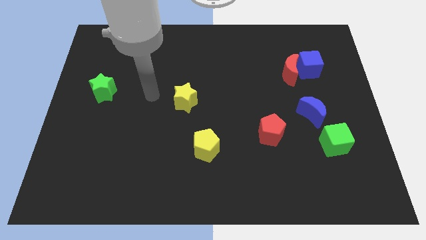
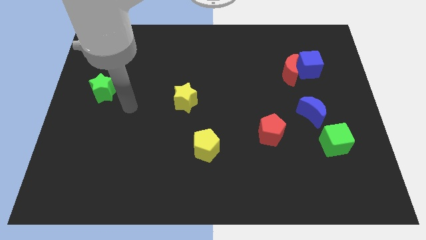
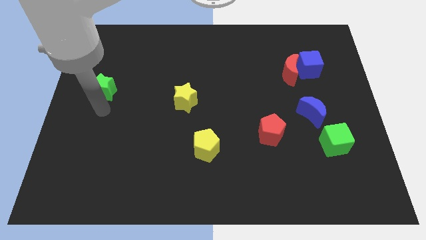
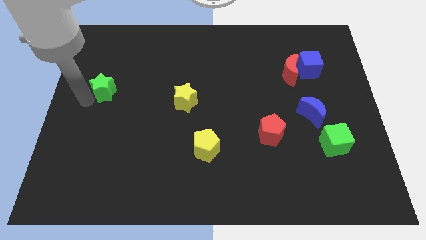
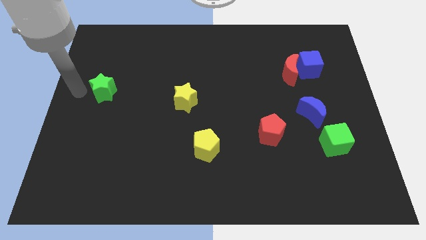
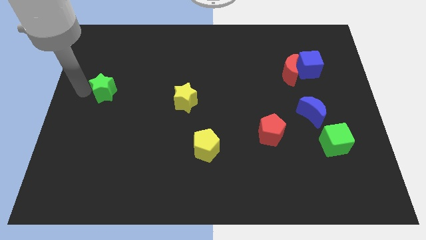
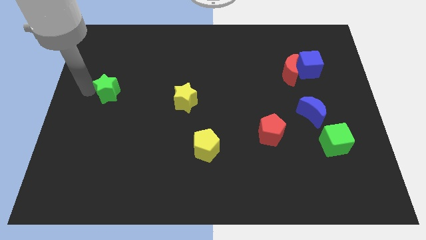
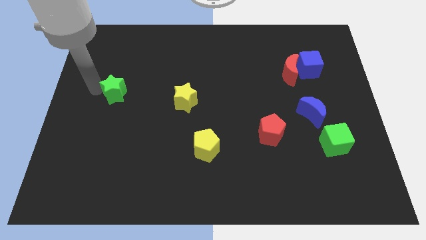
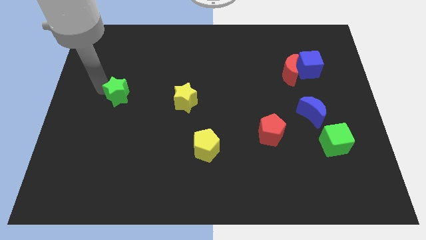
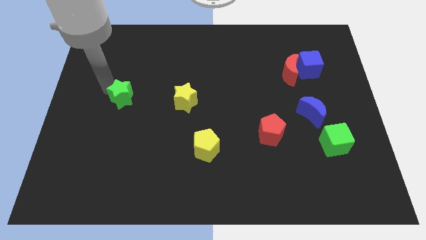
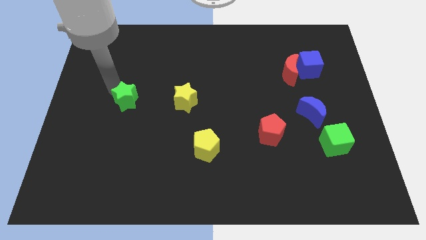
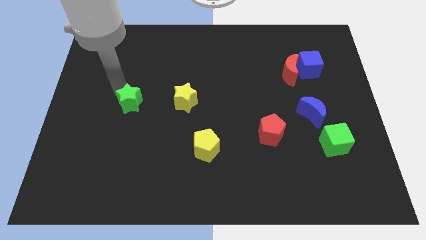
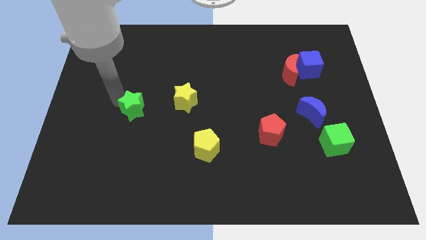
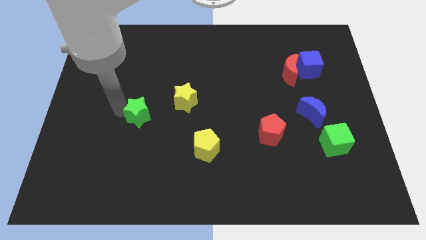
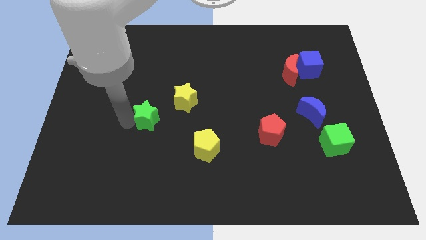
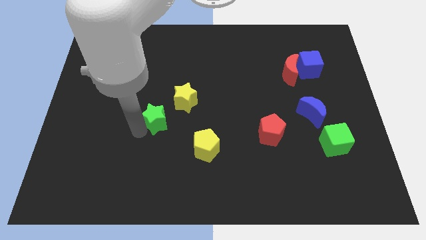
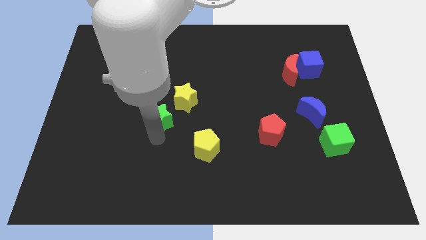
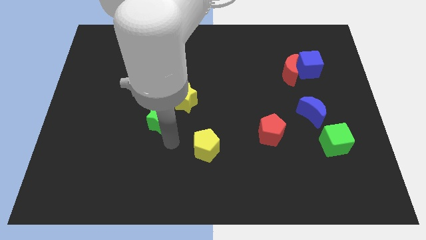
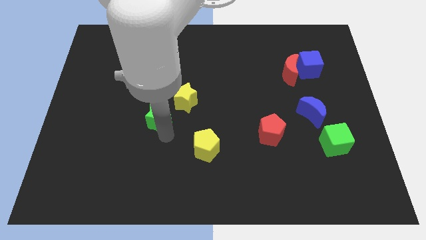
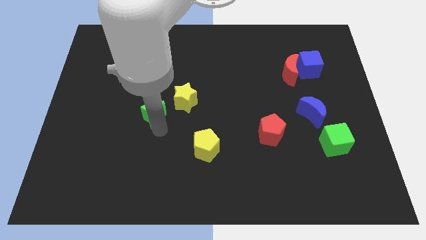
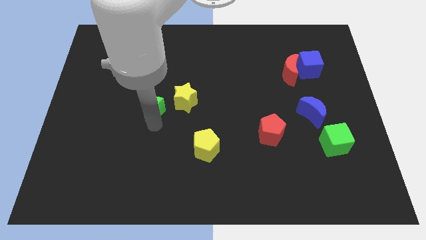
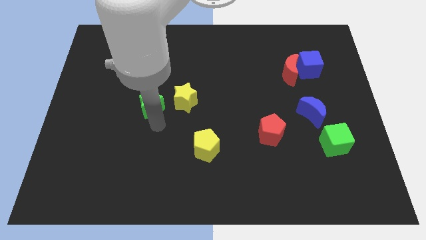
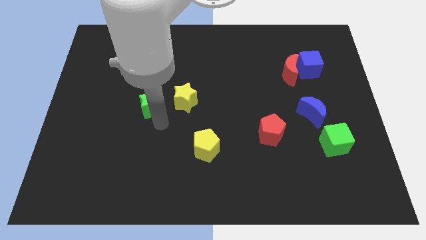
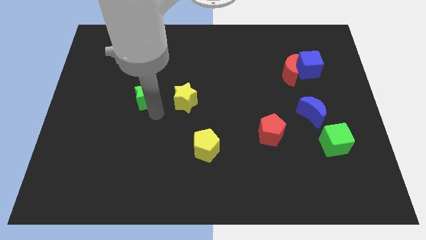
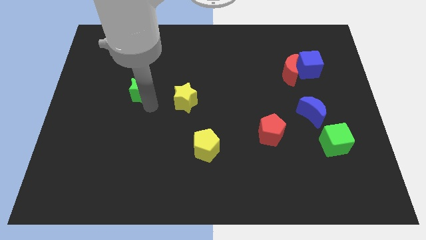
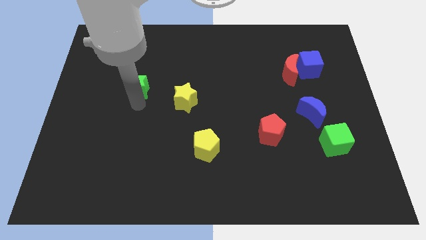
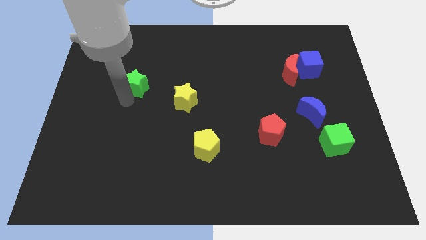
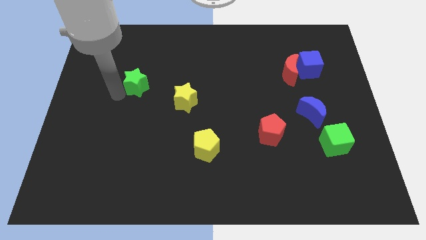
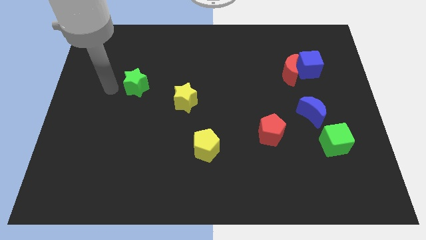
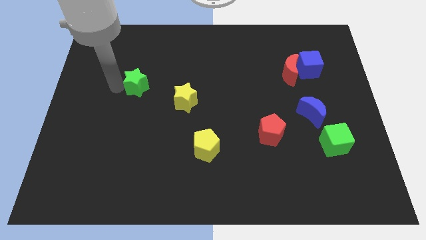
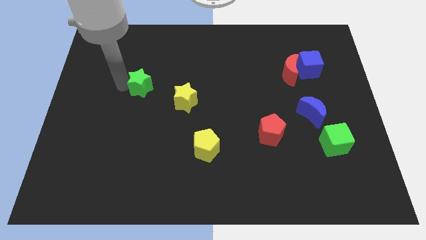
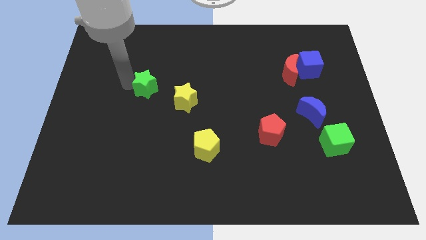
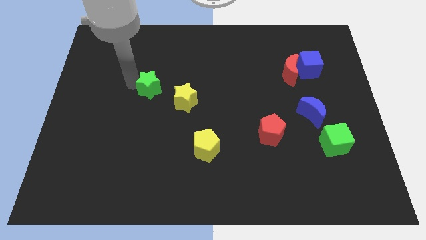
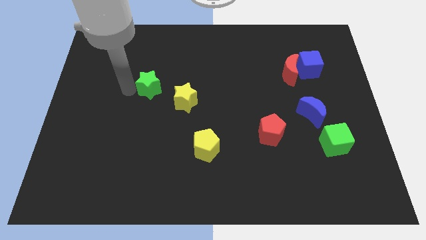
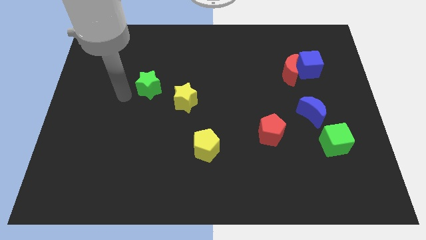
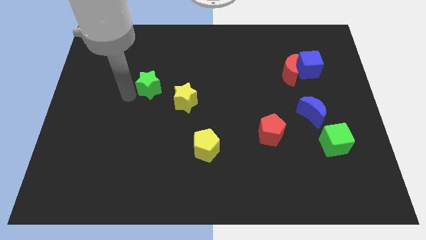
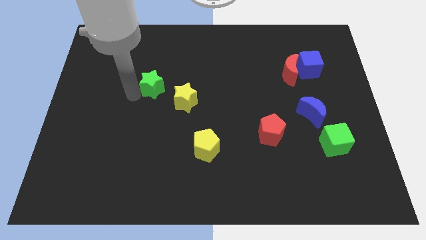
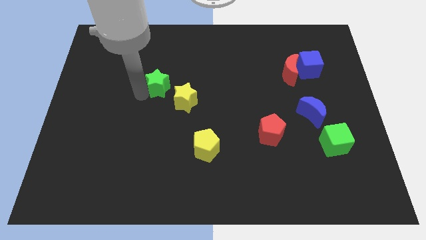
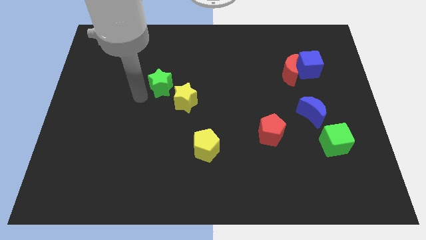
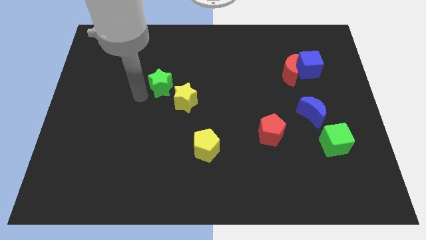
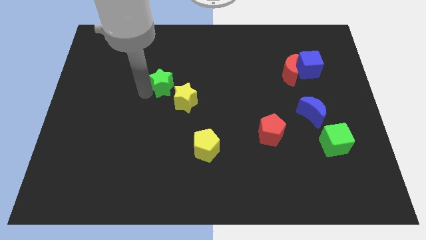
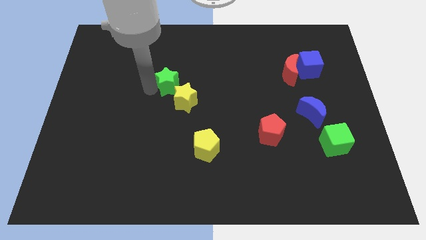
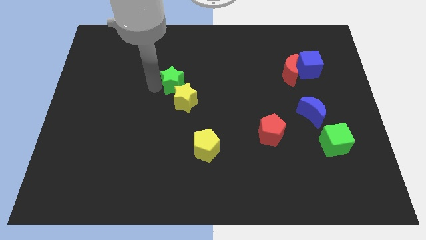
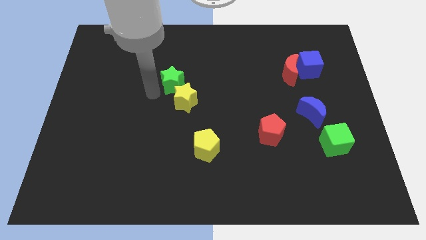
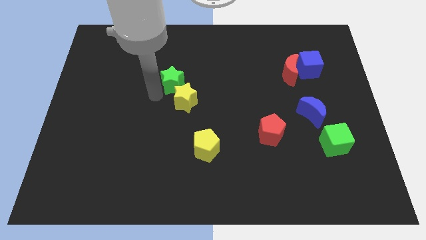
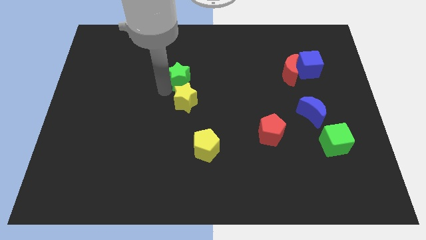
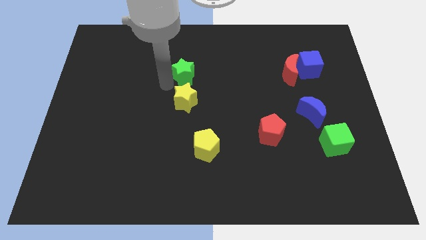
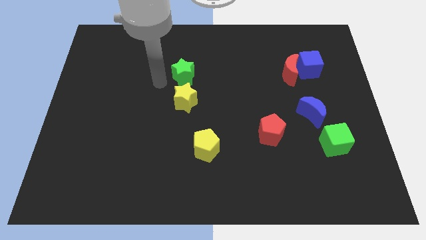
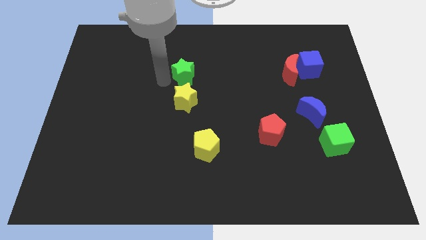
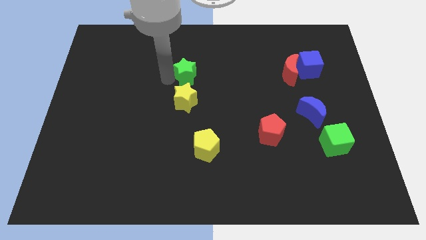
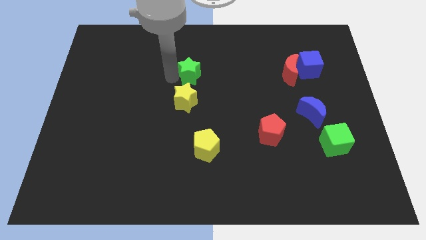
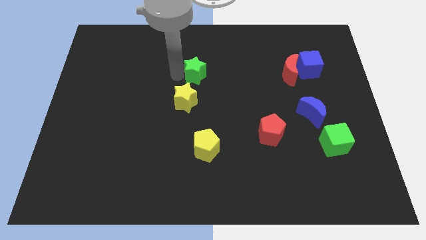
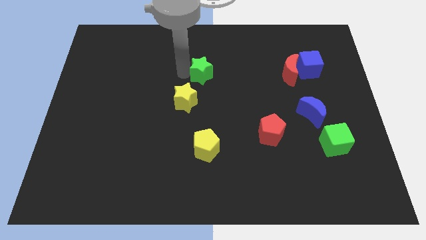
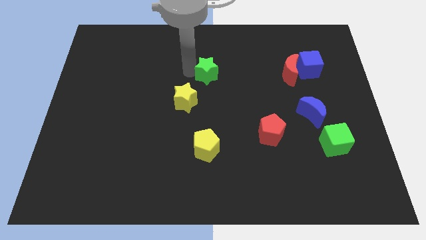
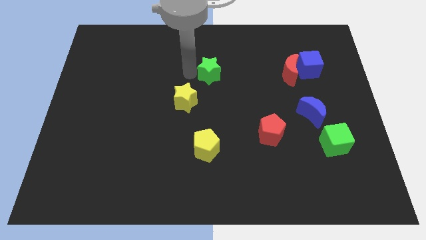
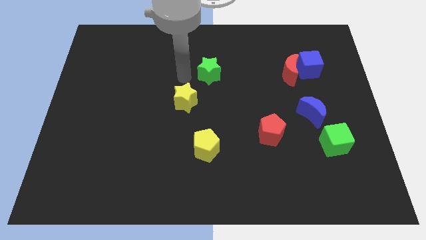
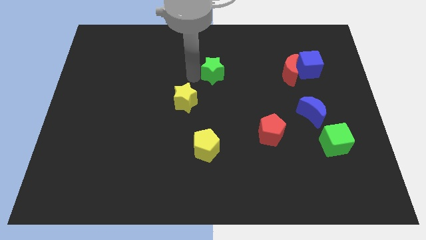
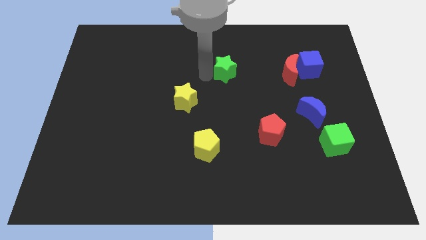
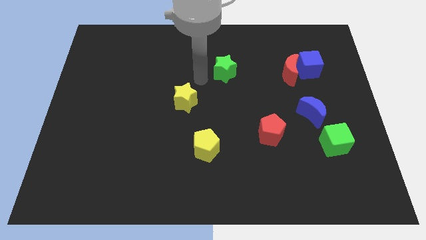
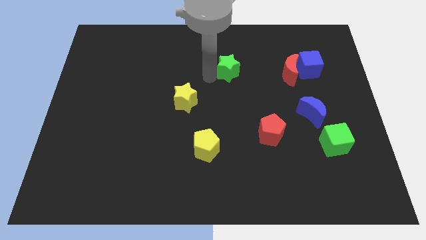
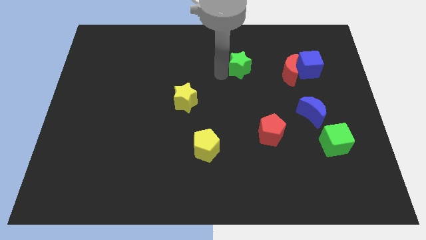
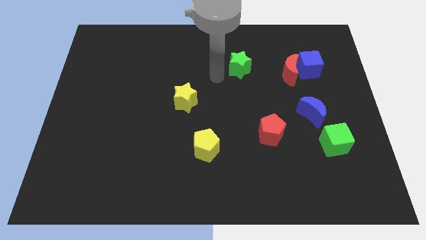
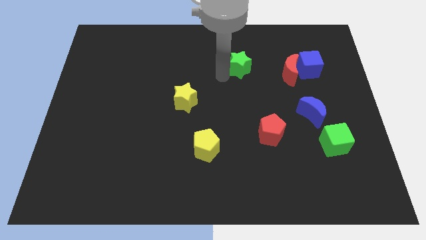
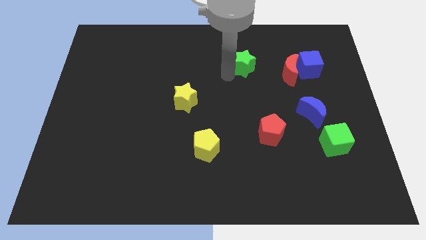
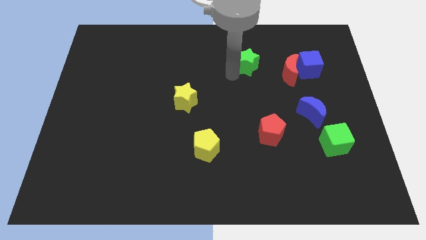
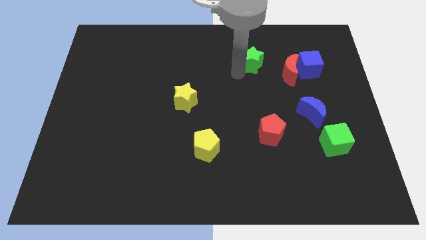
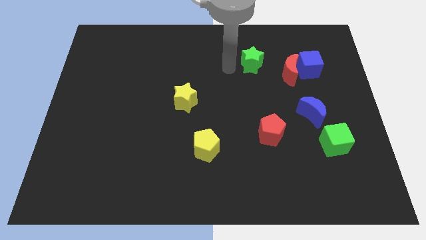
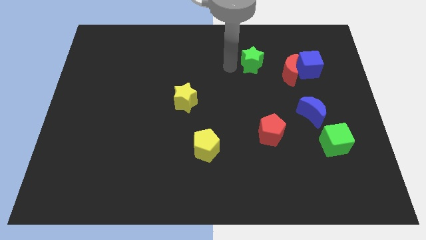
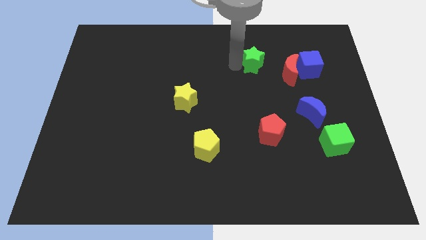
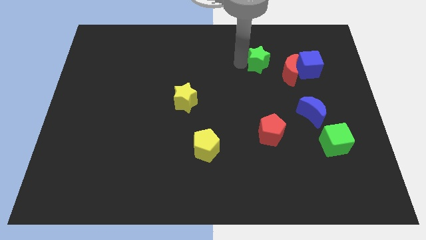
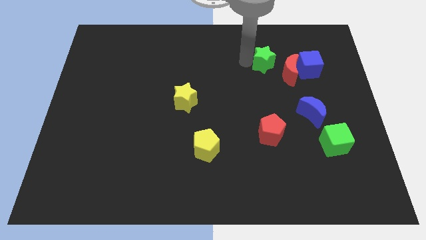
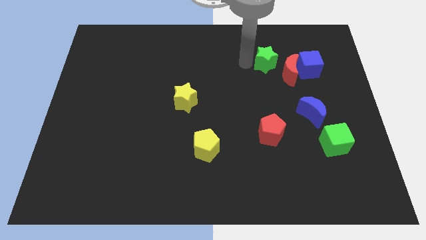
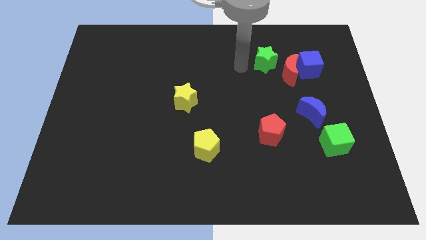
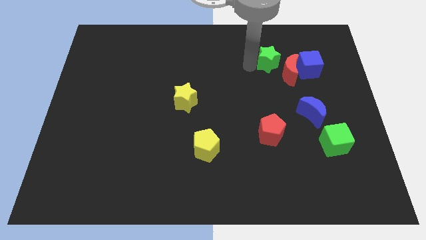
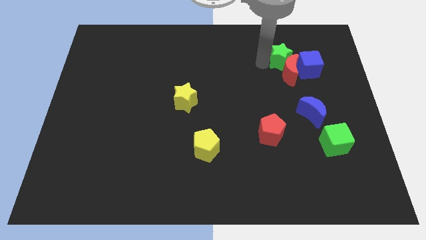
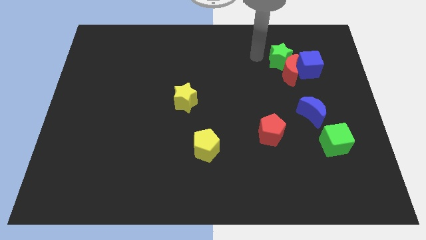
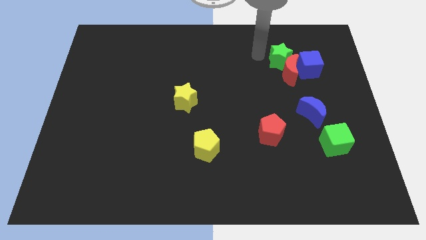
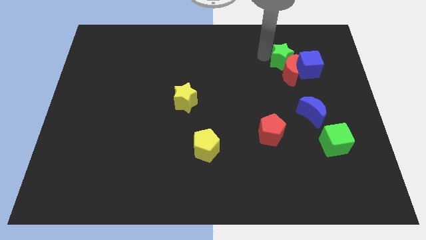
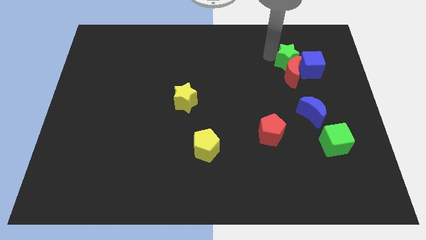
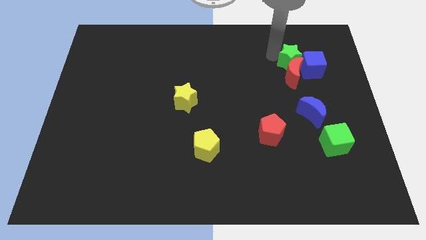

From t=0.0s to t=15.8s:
slide the green star close to the blue cube
